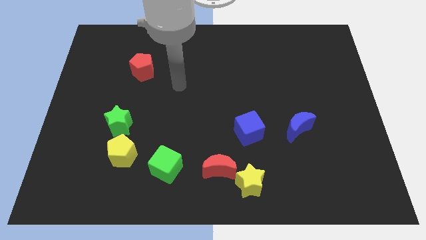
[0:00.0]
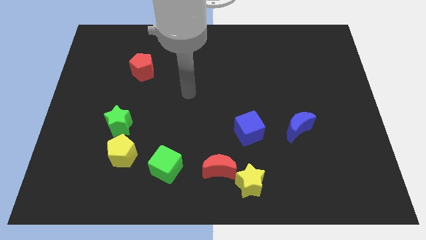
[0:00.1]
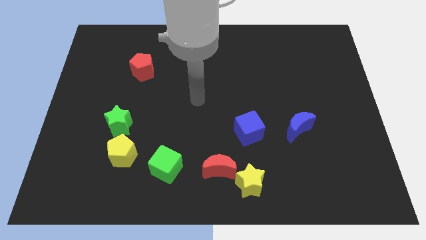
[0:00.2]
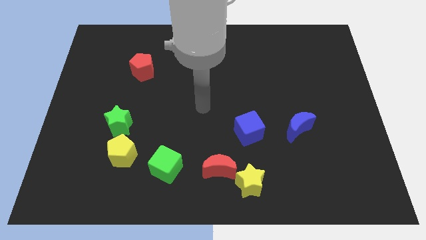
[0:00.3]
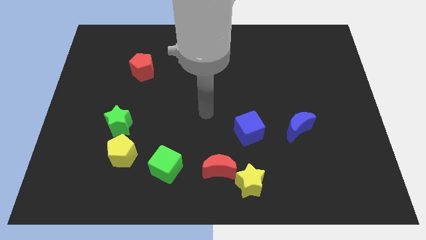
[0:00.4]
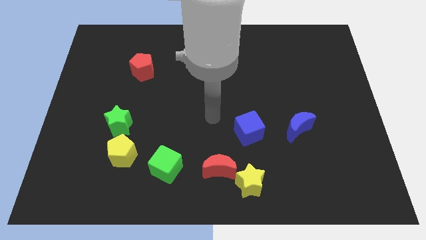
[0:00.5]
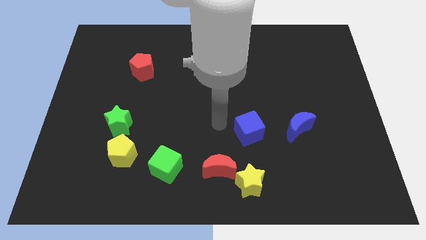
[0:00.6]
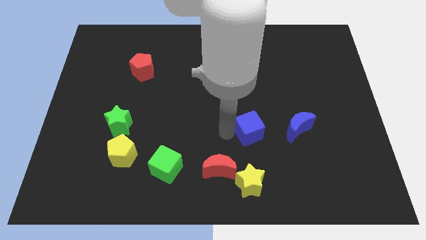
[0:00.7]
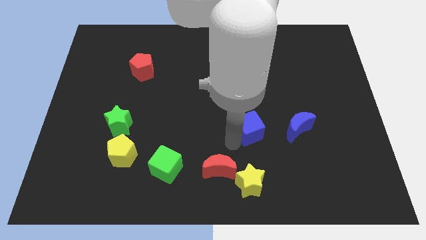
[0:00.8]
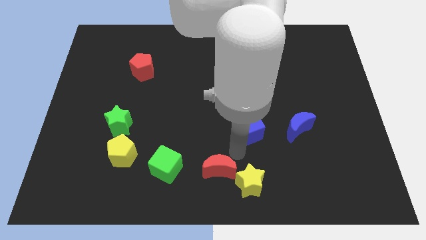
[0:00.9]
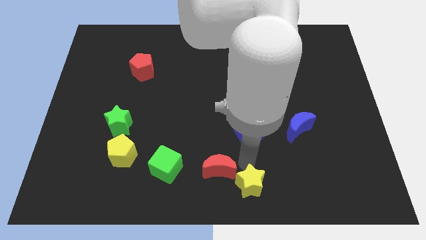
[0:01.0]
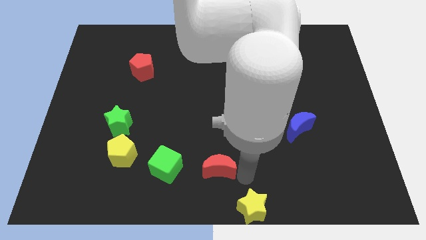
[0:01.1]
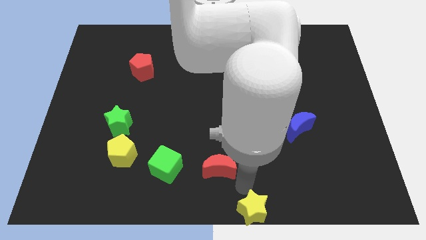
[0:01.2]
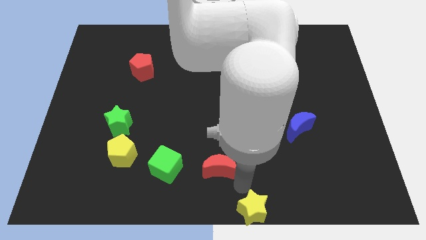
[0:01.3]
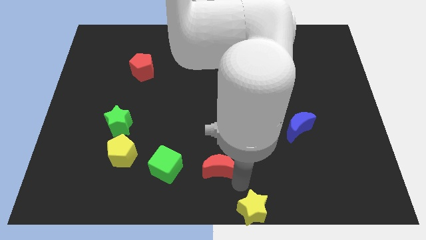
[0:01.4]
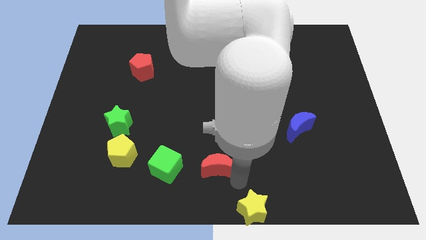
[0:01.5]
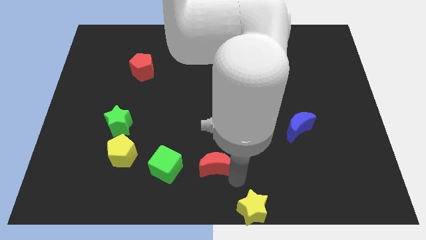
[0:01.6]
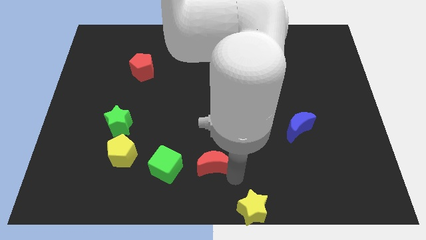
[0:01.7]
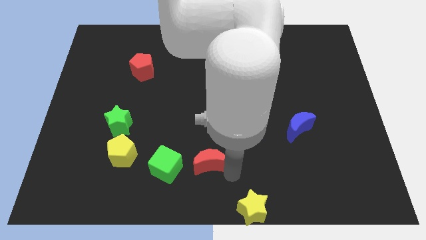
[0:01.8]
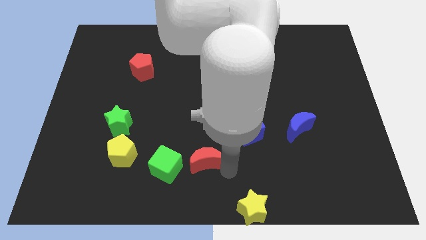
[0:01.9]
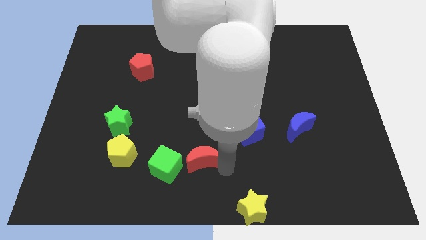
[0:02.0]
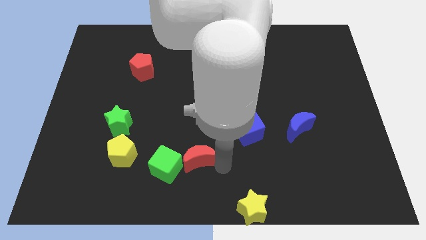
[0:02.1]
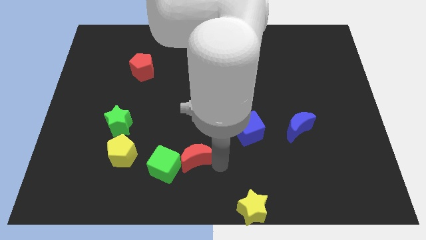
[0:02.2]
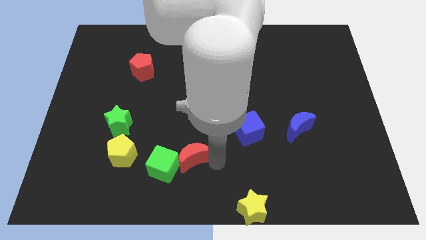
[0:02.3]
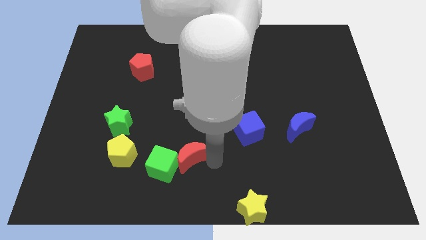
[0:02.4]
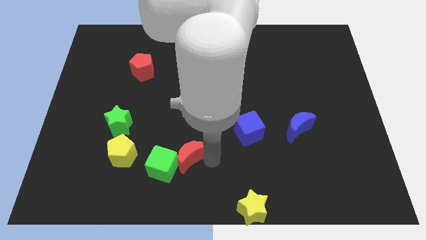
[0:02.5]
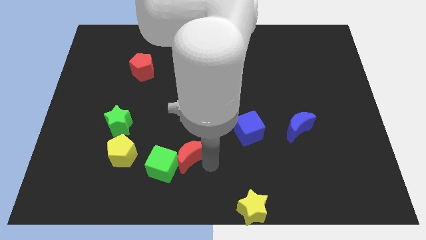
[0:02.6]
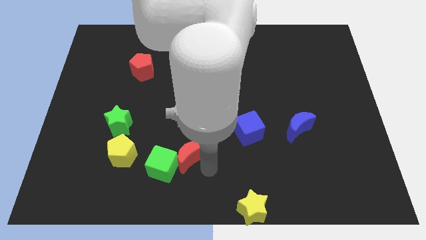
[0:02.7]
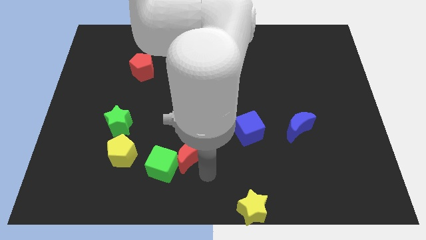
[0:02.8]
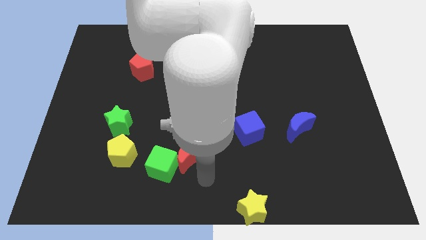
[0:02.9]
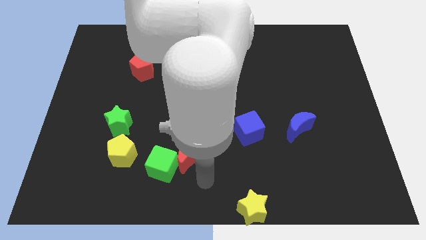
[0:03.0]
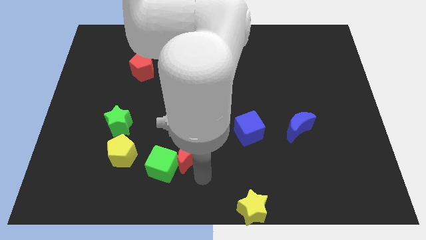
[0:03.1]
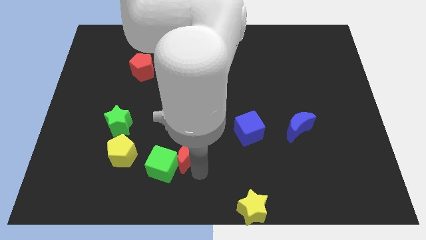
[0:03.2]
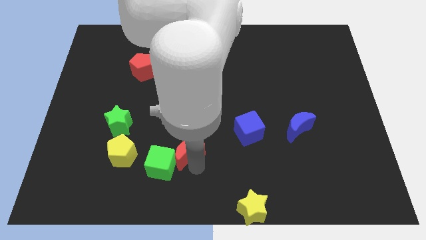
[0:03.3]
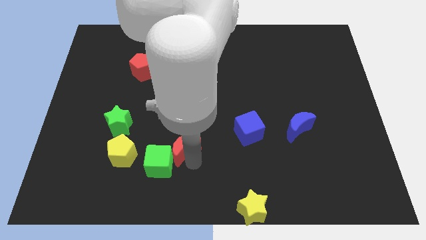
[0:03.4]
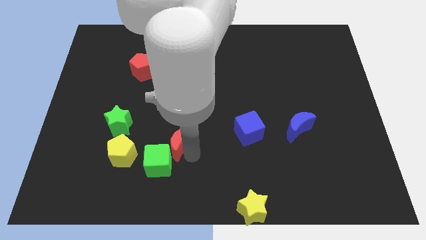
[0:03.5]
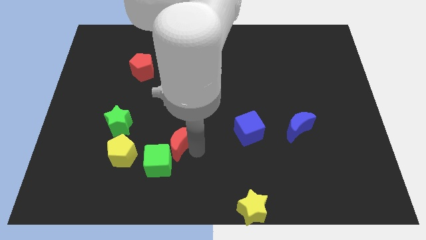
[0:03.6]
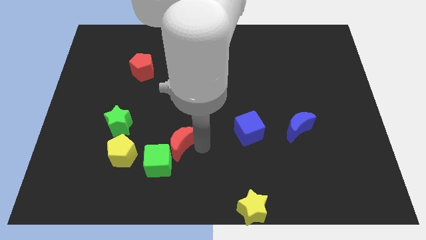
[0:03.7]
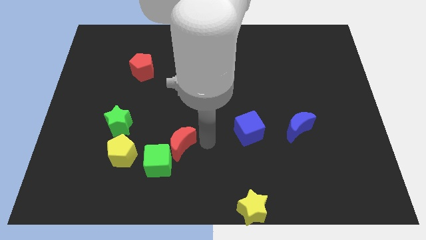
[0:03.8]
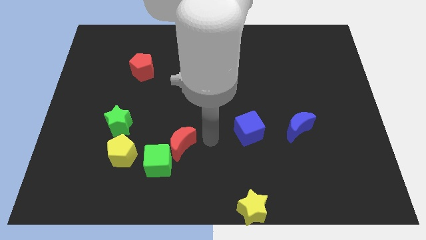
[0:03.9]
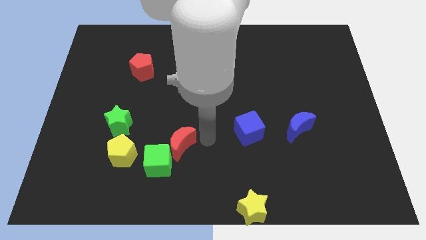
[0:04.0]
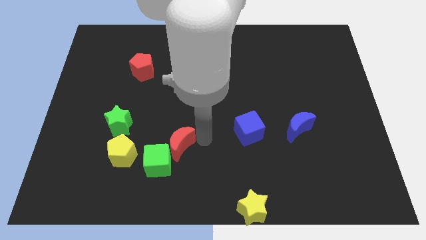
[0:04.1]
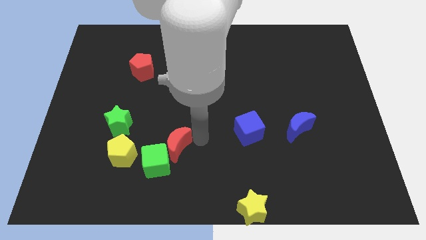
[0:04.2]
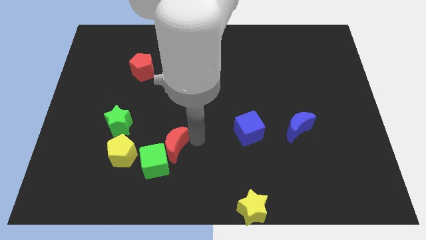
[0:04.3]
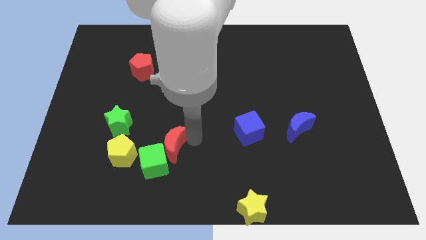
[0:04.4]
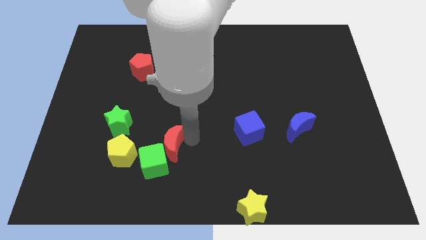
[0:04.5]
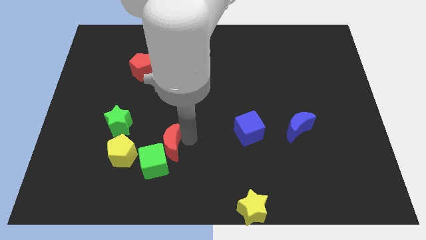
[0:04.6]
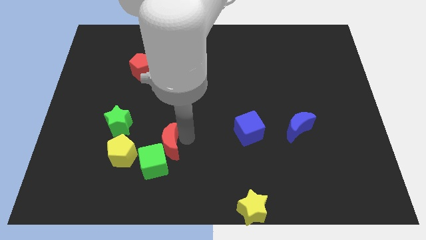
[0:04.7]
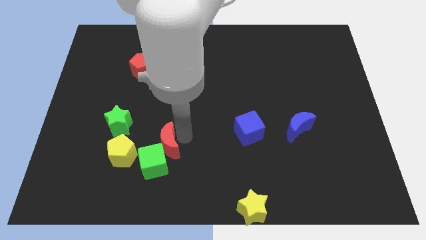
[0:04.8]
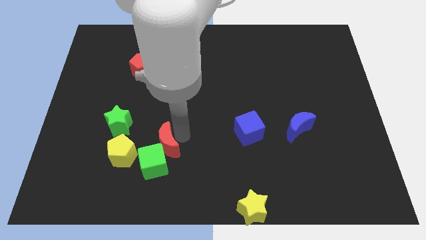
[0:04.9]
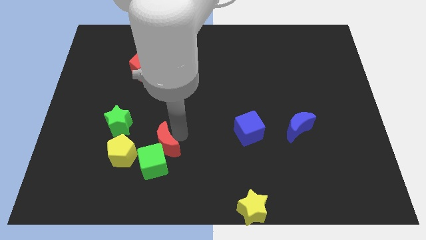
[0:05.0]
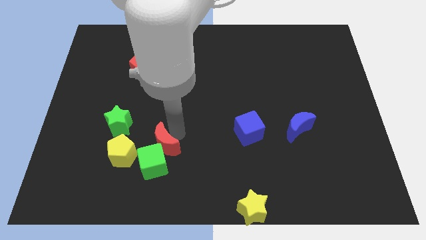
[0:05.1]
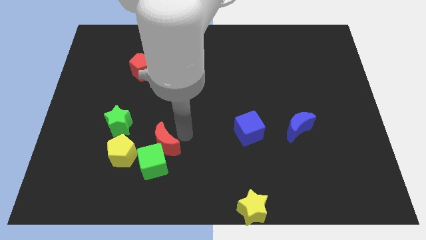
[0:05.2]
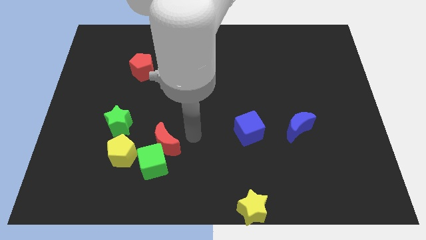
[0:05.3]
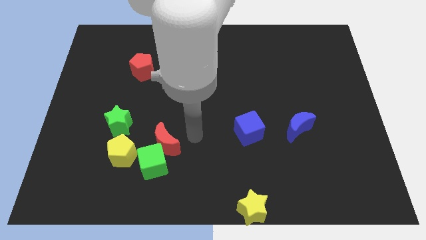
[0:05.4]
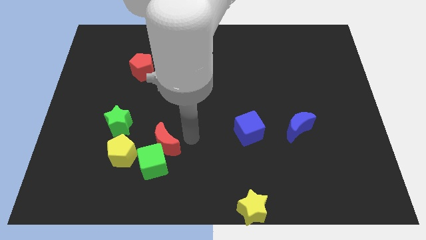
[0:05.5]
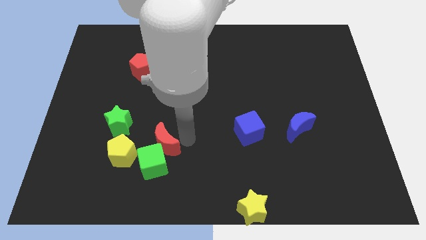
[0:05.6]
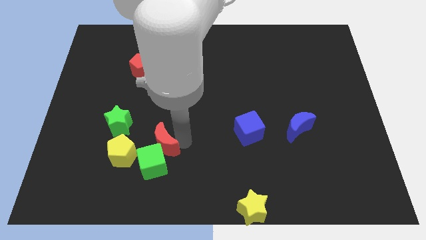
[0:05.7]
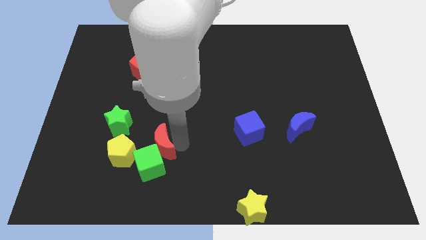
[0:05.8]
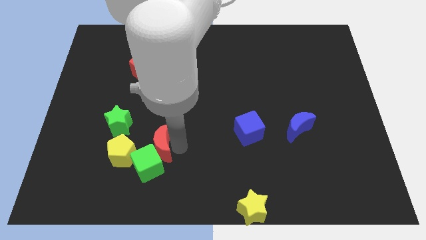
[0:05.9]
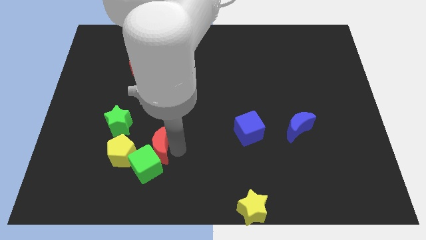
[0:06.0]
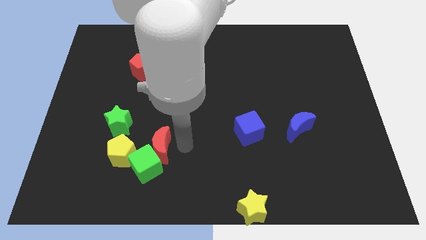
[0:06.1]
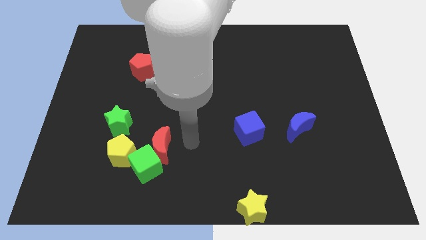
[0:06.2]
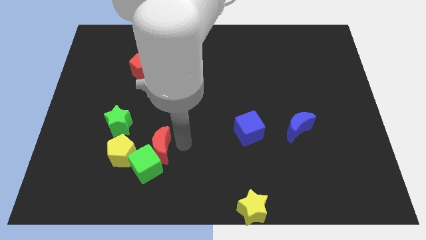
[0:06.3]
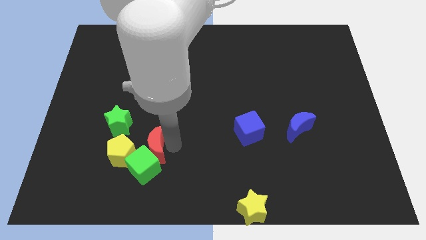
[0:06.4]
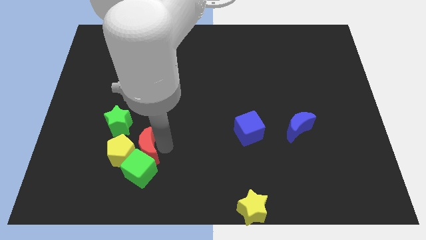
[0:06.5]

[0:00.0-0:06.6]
push the red moon next to the yellow pentagon
